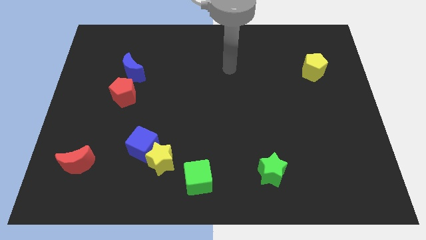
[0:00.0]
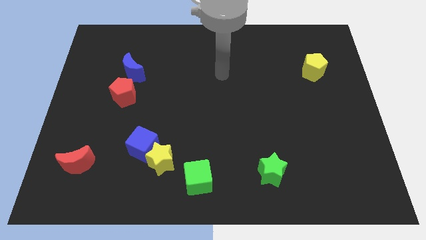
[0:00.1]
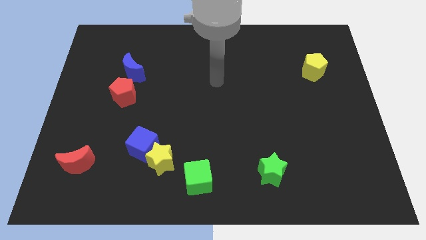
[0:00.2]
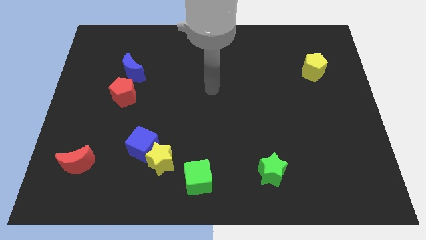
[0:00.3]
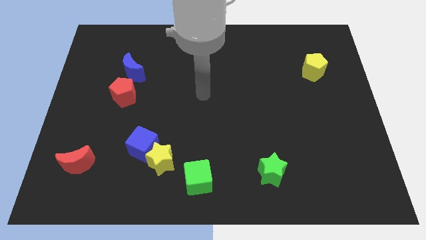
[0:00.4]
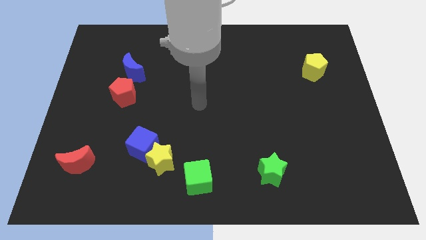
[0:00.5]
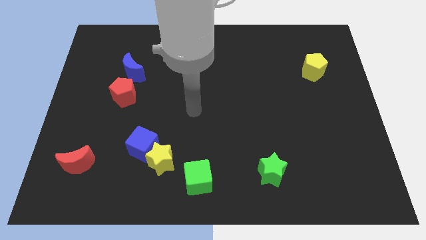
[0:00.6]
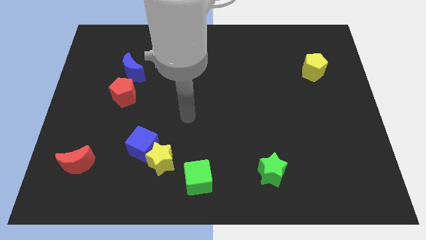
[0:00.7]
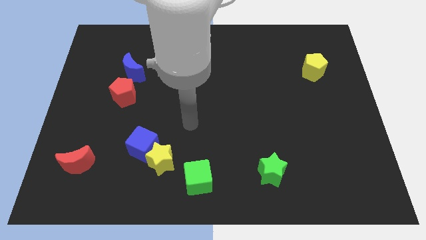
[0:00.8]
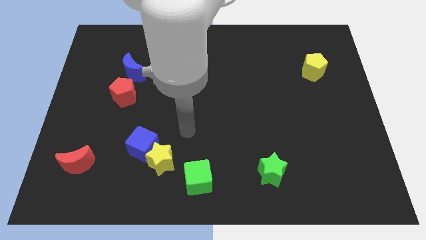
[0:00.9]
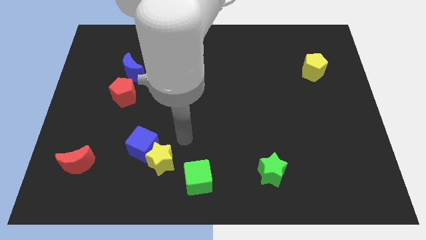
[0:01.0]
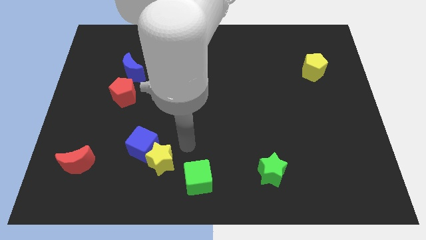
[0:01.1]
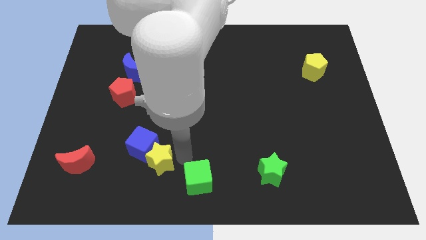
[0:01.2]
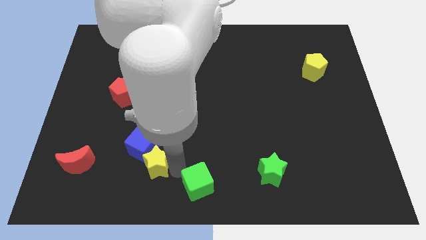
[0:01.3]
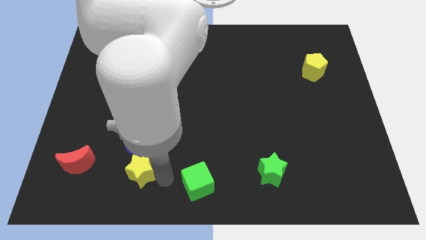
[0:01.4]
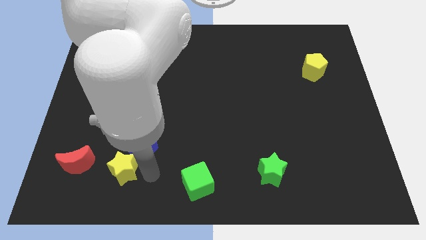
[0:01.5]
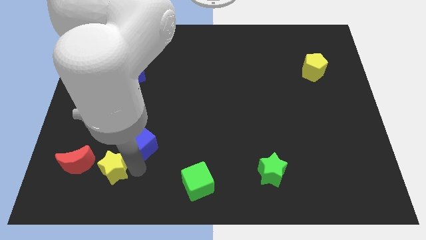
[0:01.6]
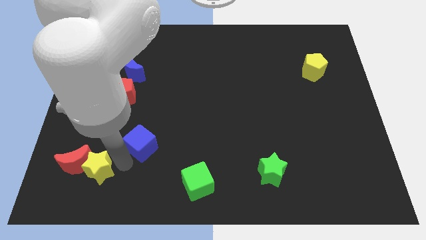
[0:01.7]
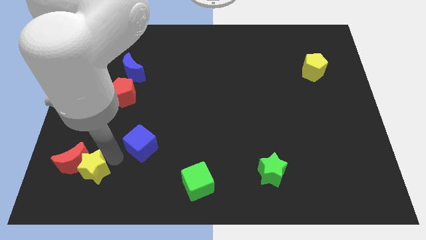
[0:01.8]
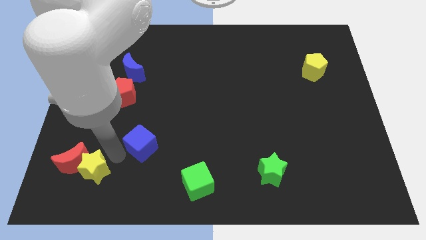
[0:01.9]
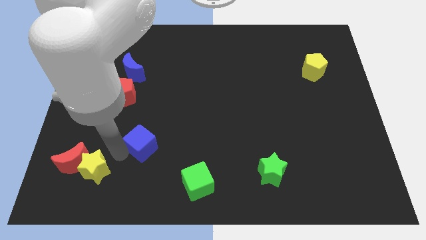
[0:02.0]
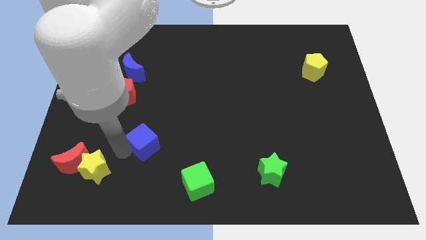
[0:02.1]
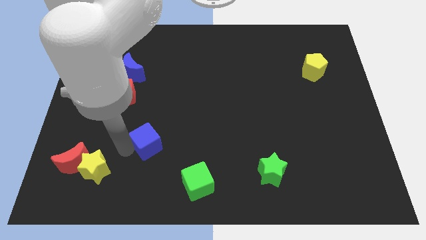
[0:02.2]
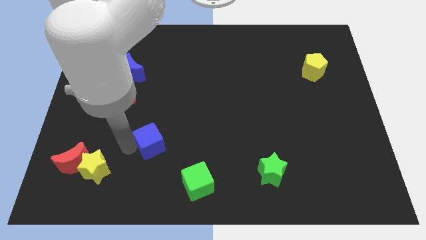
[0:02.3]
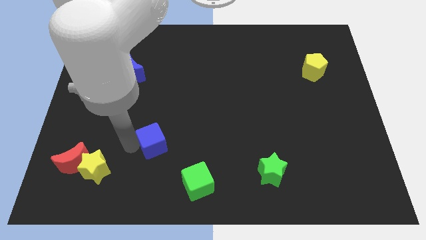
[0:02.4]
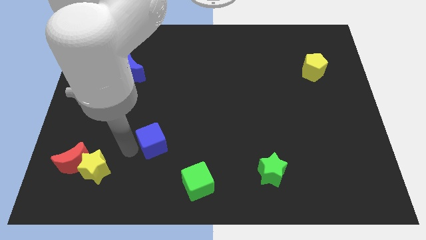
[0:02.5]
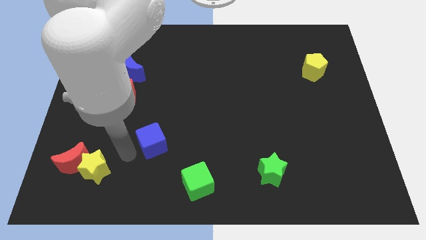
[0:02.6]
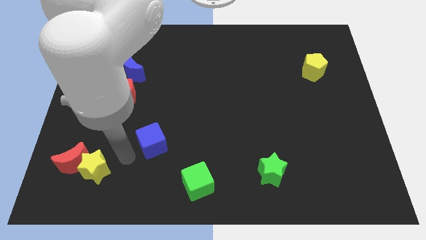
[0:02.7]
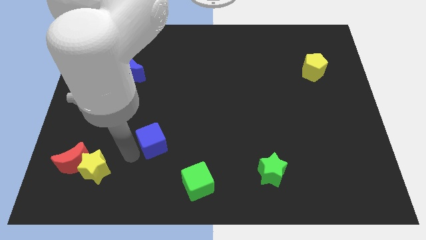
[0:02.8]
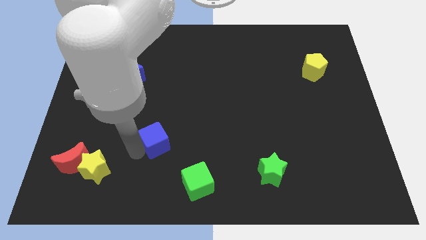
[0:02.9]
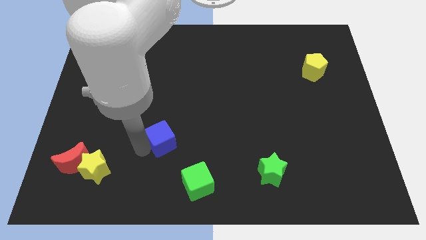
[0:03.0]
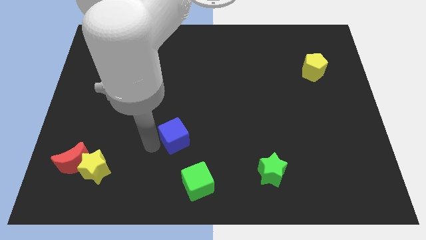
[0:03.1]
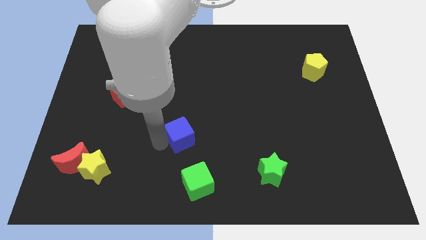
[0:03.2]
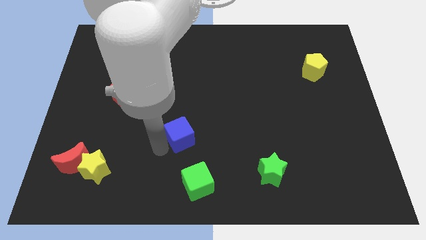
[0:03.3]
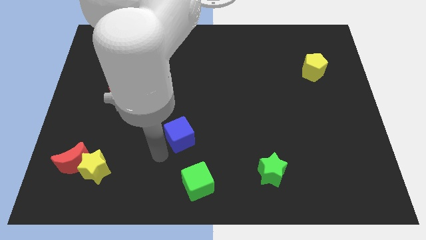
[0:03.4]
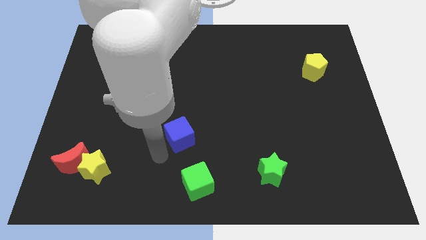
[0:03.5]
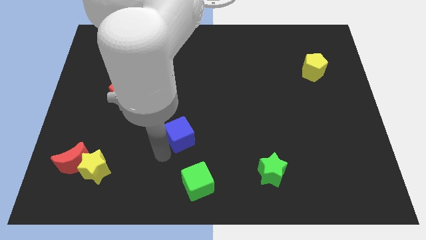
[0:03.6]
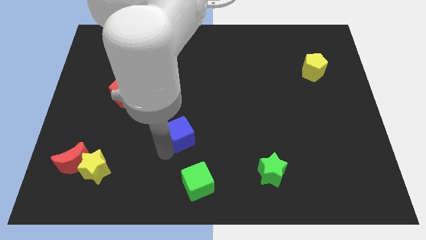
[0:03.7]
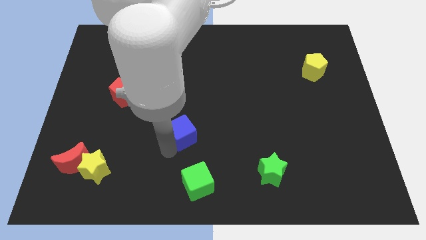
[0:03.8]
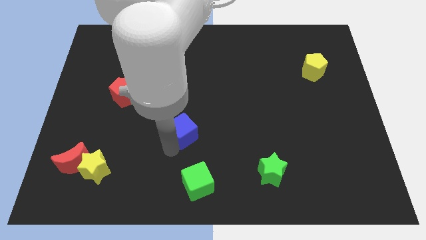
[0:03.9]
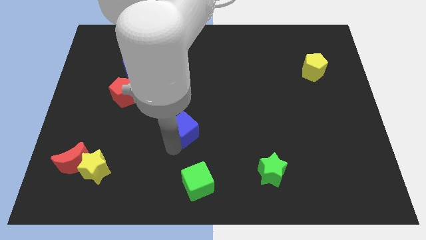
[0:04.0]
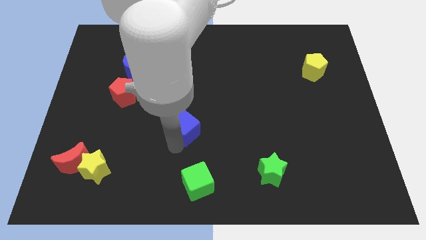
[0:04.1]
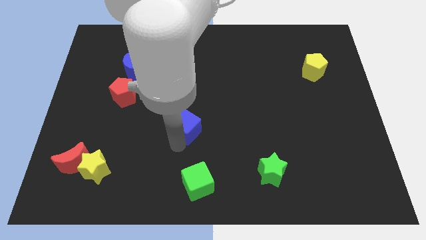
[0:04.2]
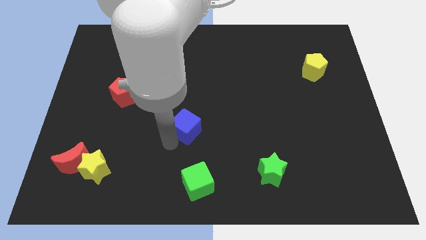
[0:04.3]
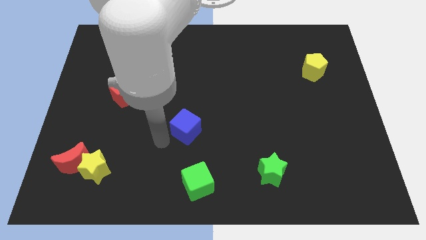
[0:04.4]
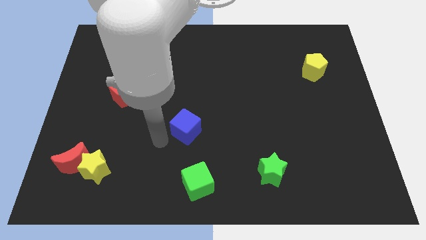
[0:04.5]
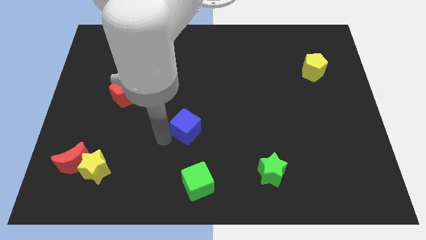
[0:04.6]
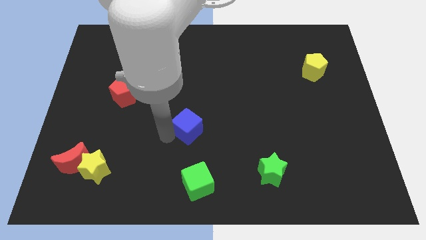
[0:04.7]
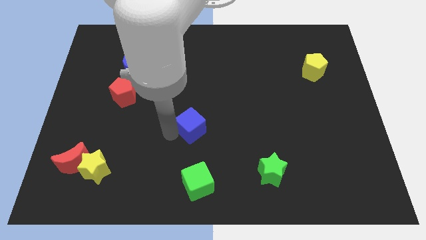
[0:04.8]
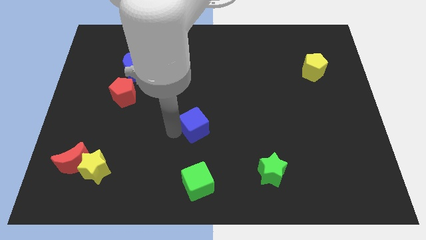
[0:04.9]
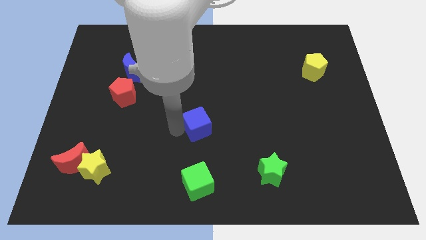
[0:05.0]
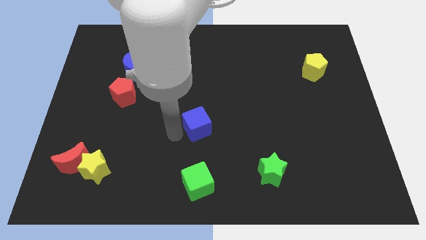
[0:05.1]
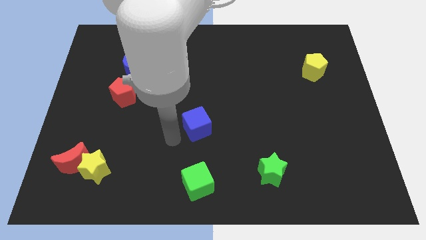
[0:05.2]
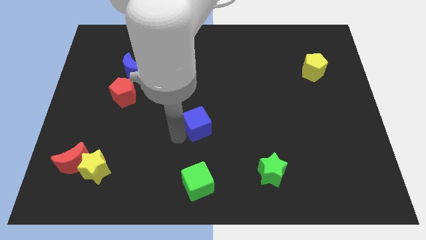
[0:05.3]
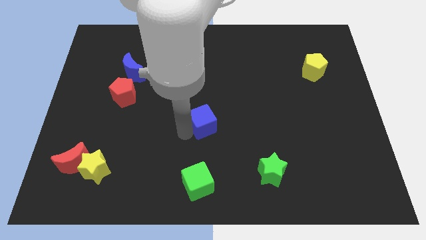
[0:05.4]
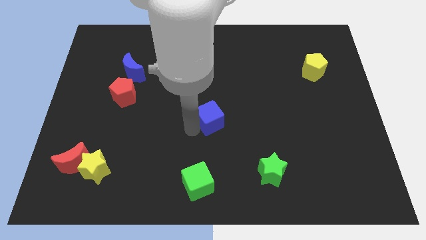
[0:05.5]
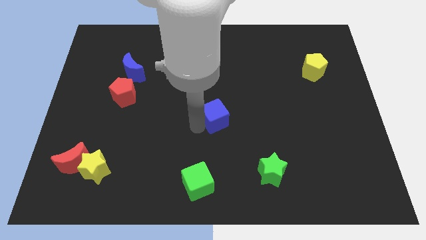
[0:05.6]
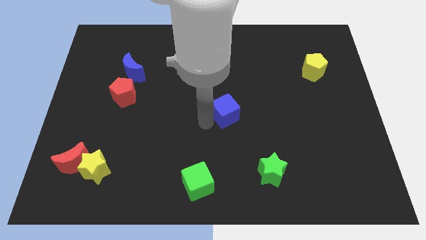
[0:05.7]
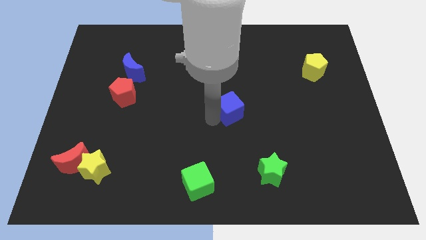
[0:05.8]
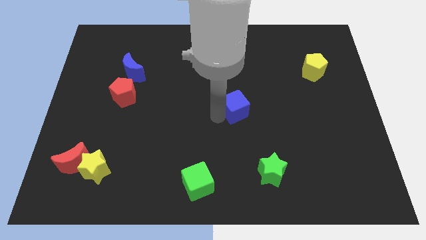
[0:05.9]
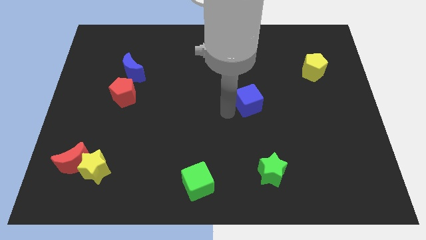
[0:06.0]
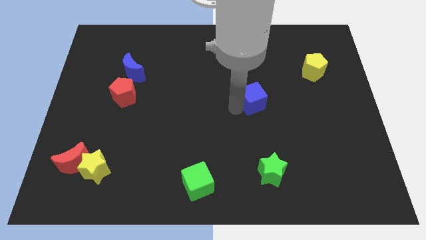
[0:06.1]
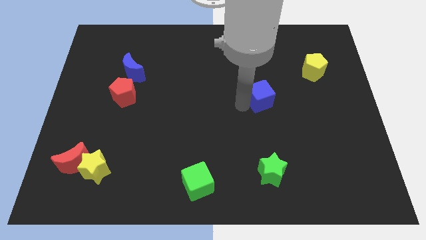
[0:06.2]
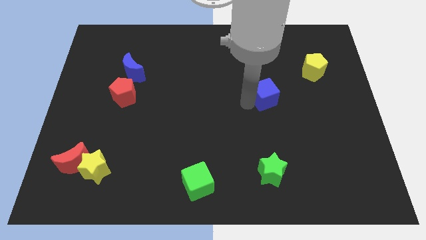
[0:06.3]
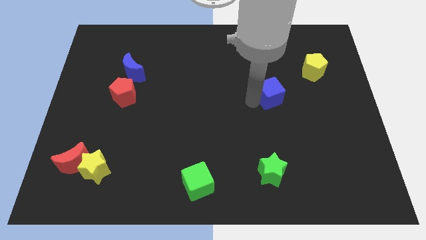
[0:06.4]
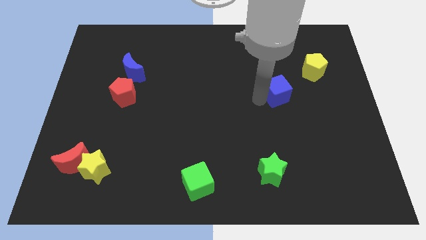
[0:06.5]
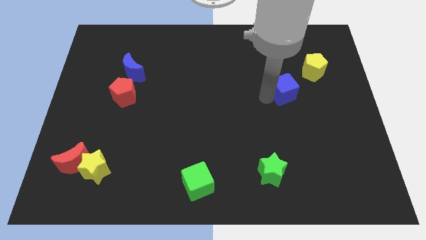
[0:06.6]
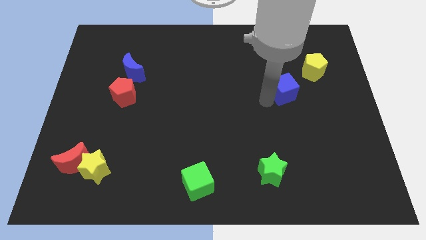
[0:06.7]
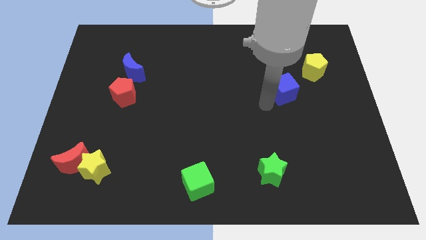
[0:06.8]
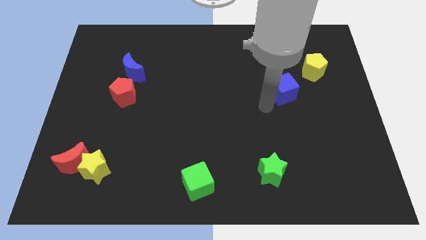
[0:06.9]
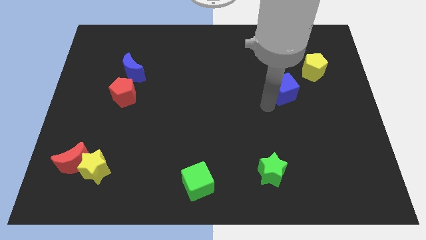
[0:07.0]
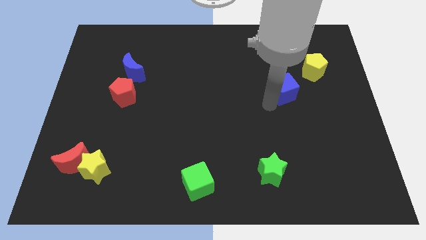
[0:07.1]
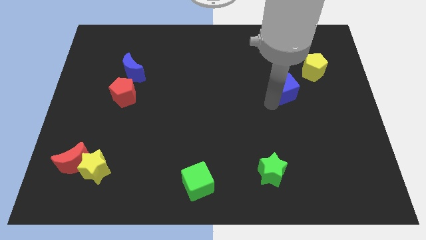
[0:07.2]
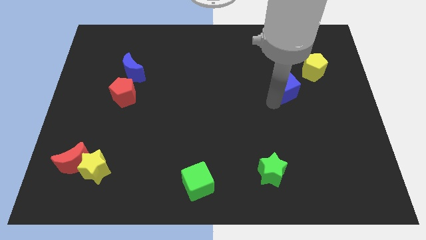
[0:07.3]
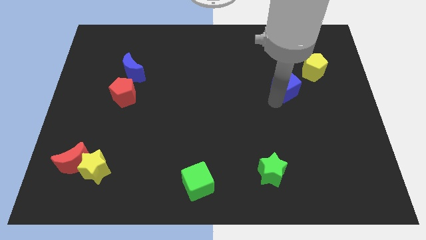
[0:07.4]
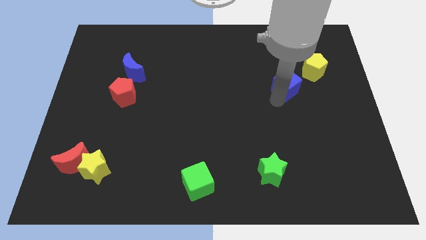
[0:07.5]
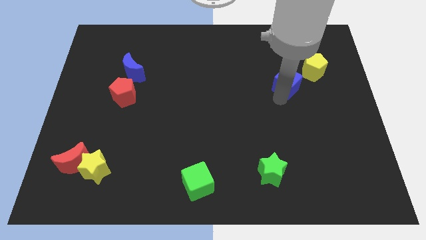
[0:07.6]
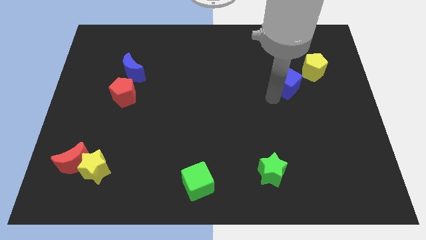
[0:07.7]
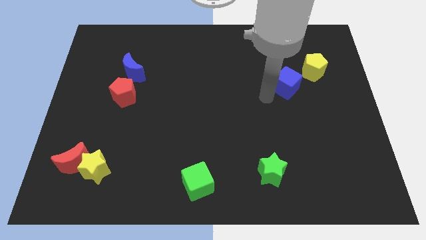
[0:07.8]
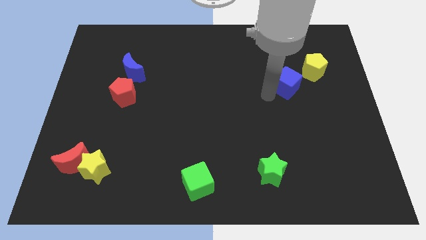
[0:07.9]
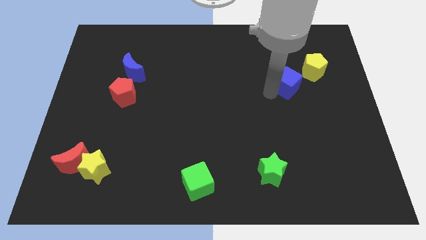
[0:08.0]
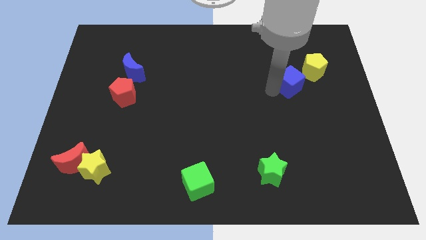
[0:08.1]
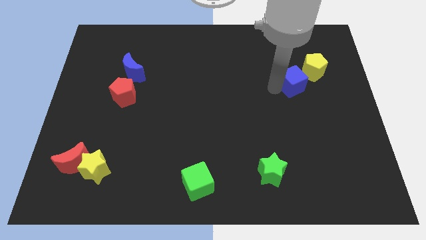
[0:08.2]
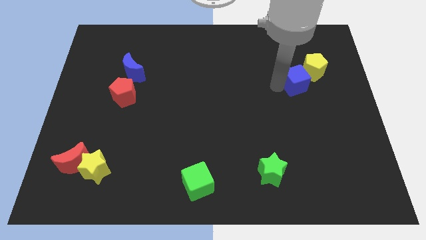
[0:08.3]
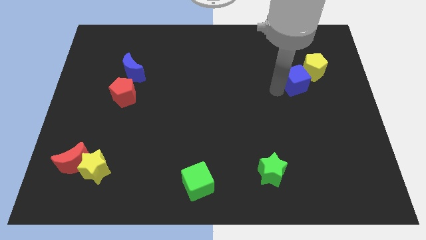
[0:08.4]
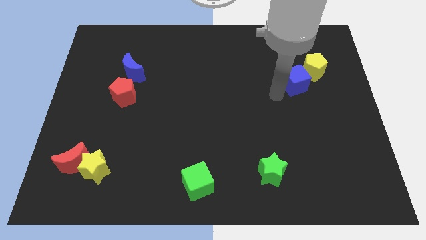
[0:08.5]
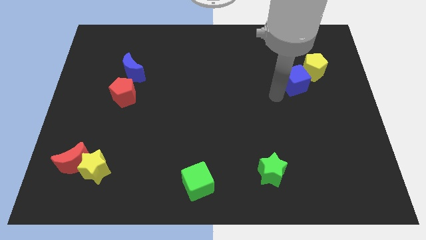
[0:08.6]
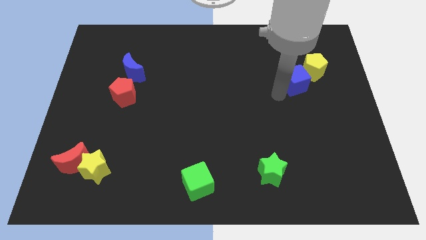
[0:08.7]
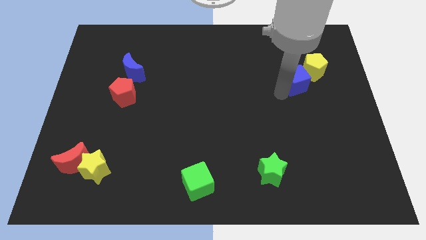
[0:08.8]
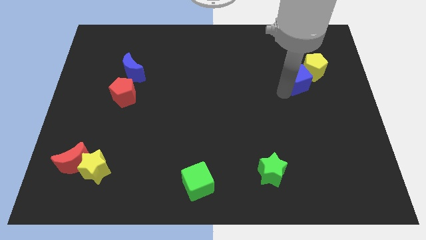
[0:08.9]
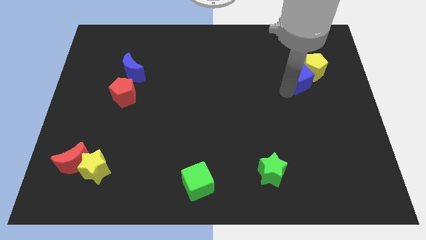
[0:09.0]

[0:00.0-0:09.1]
move the blue cube towards the yellow pentagon
